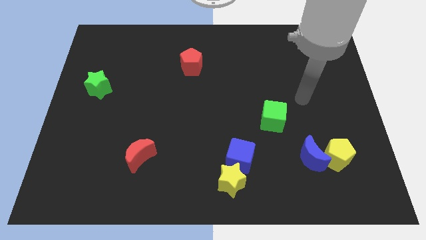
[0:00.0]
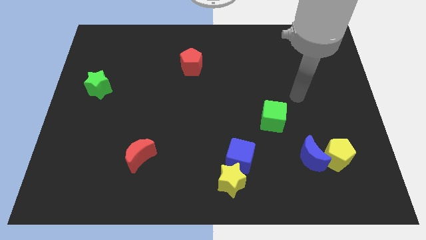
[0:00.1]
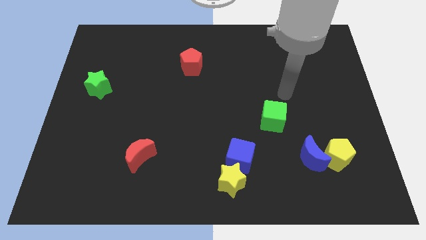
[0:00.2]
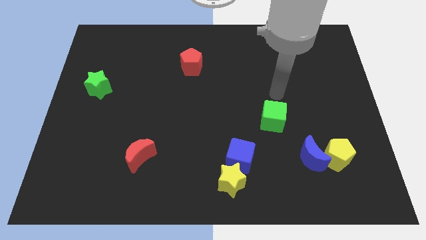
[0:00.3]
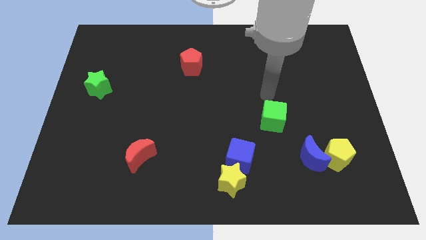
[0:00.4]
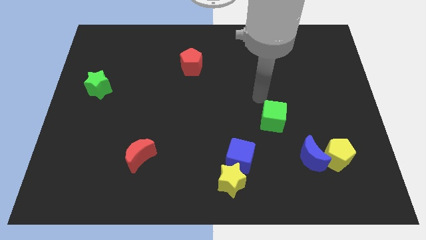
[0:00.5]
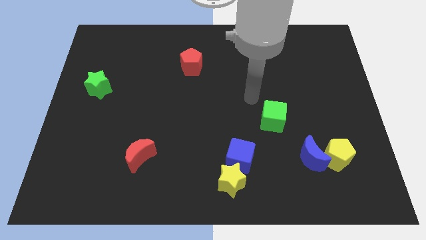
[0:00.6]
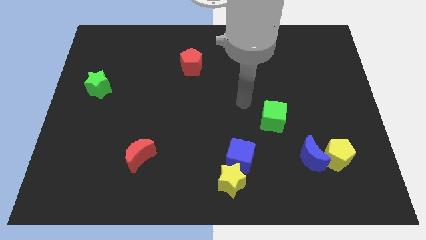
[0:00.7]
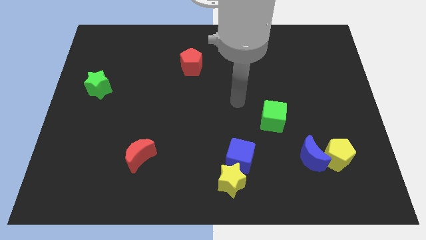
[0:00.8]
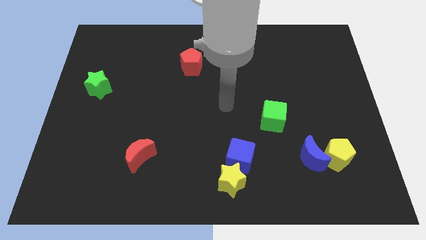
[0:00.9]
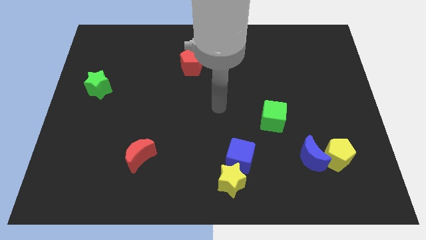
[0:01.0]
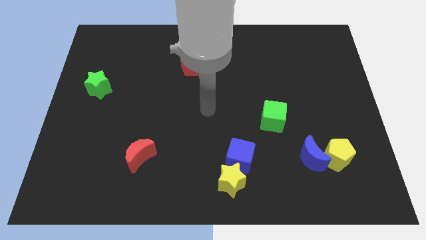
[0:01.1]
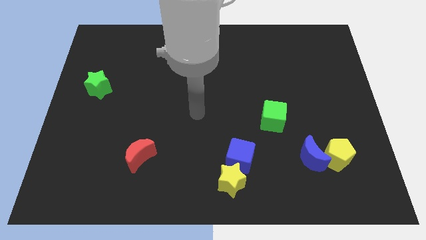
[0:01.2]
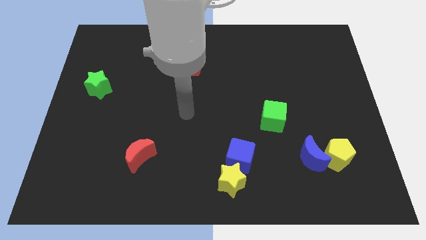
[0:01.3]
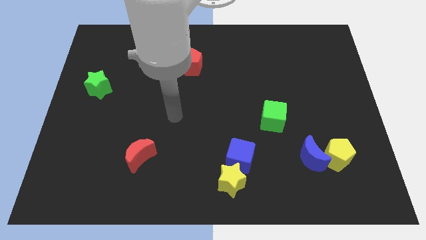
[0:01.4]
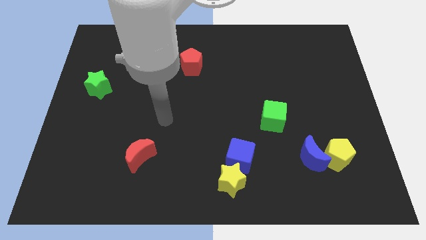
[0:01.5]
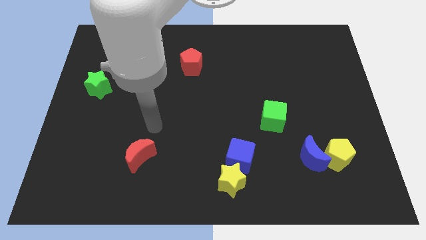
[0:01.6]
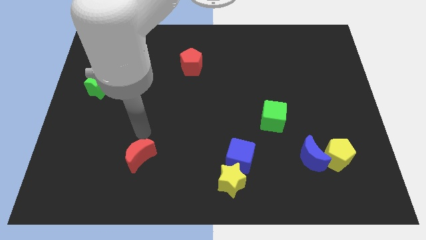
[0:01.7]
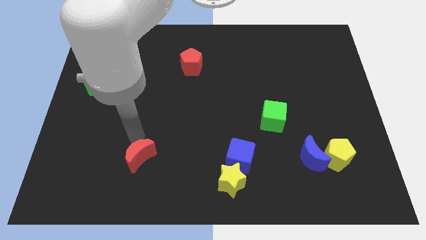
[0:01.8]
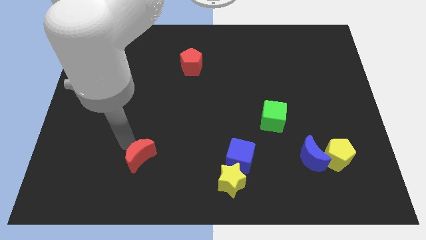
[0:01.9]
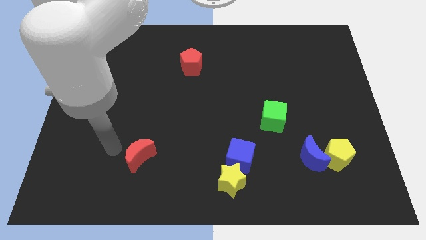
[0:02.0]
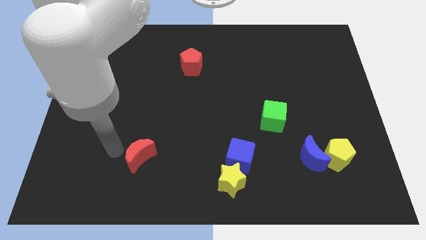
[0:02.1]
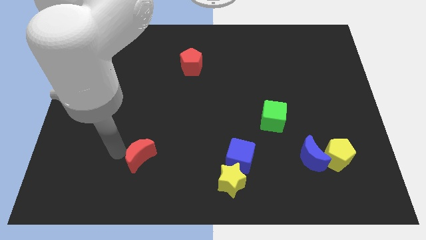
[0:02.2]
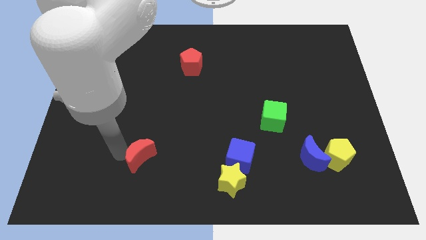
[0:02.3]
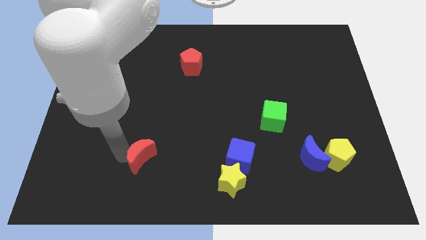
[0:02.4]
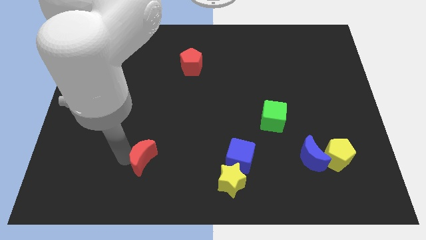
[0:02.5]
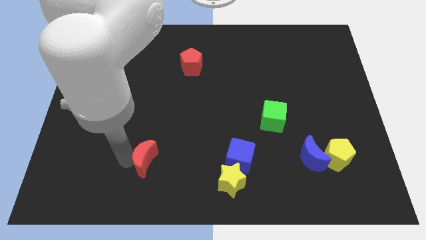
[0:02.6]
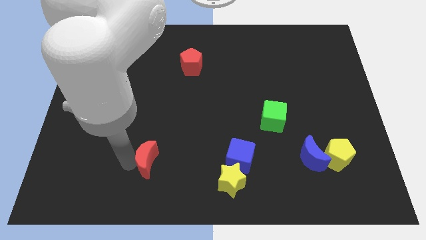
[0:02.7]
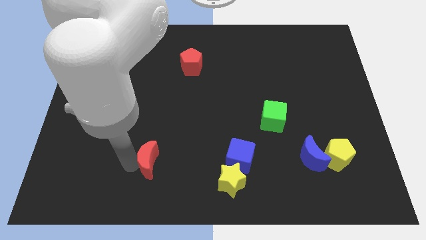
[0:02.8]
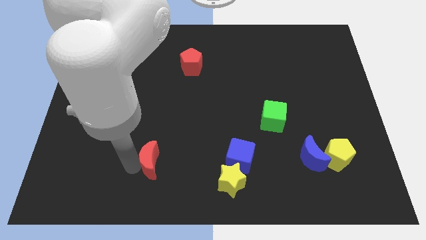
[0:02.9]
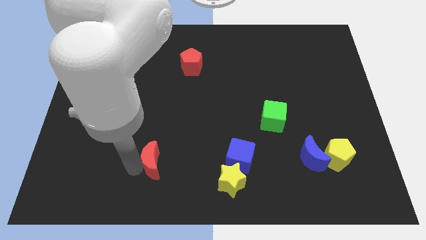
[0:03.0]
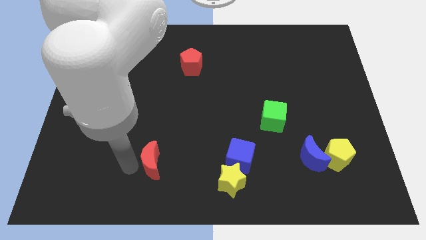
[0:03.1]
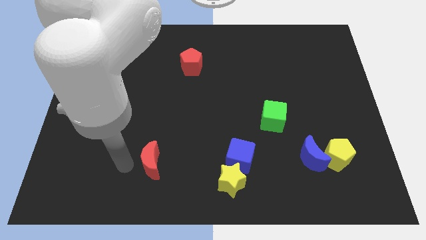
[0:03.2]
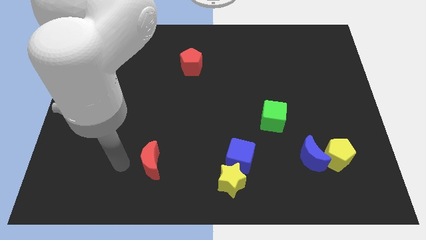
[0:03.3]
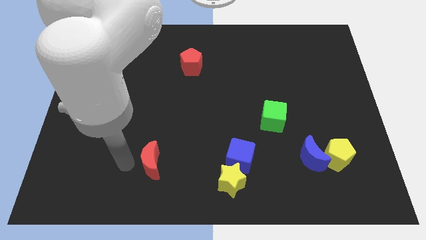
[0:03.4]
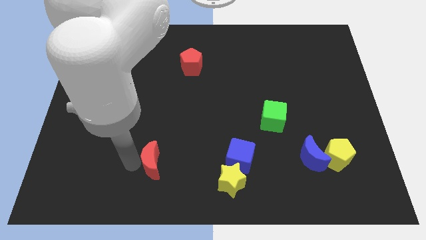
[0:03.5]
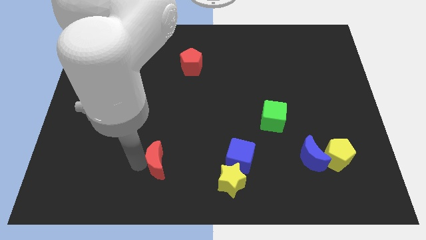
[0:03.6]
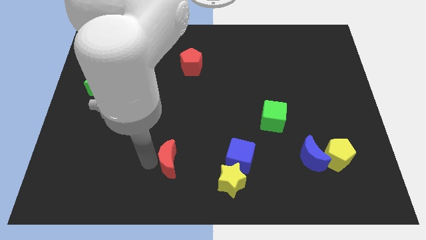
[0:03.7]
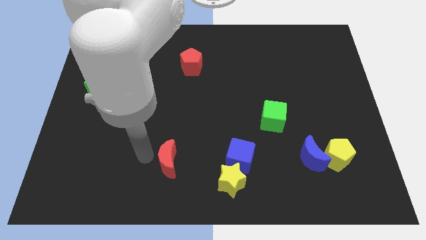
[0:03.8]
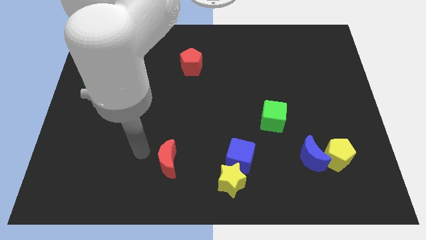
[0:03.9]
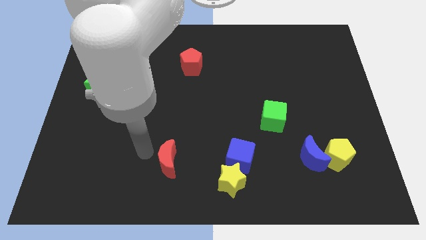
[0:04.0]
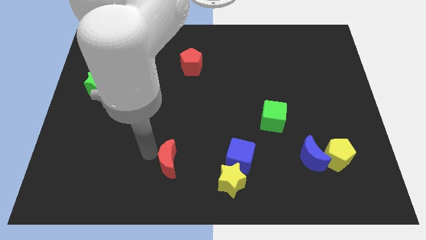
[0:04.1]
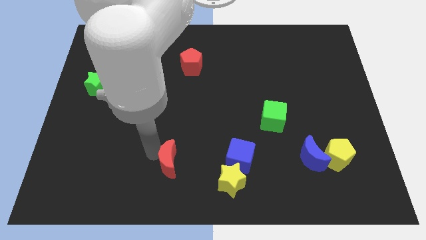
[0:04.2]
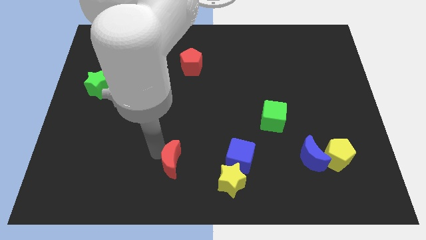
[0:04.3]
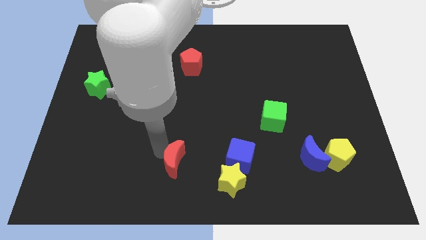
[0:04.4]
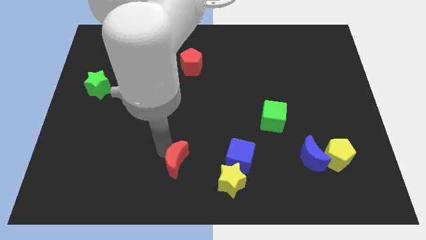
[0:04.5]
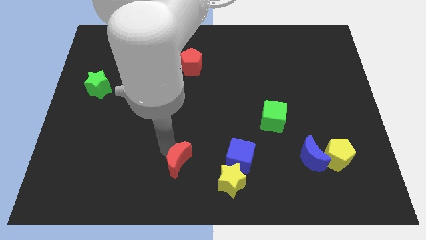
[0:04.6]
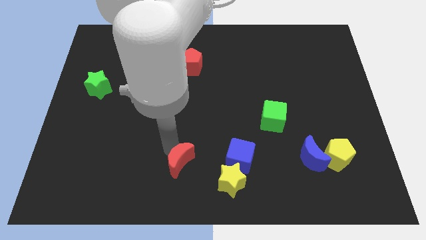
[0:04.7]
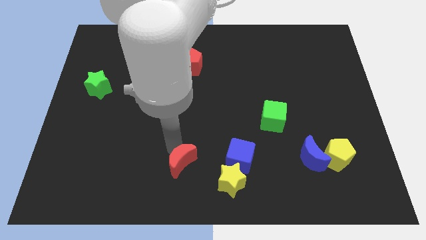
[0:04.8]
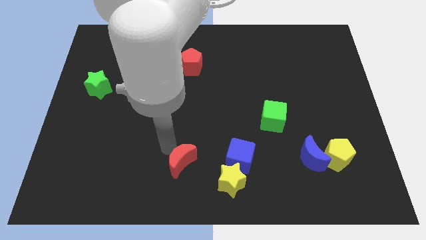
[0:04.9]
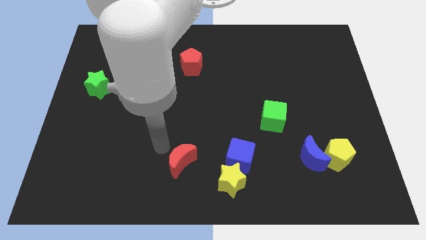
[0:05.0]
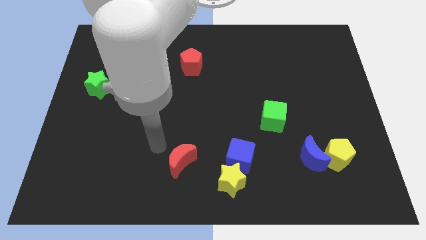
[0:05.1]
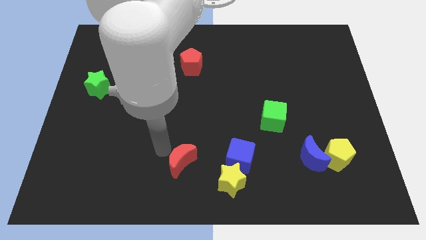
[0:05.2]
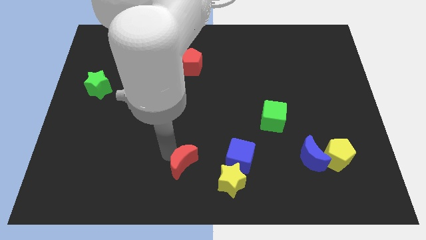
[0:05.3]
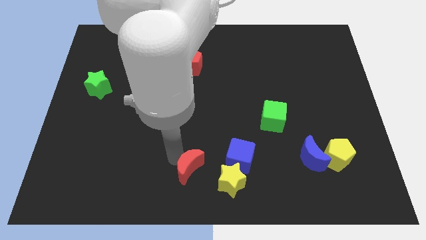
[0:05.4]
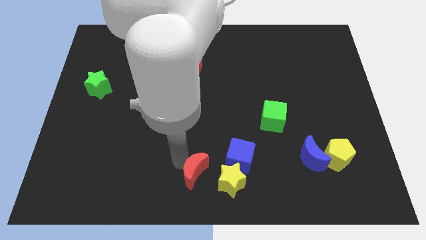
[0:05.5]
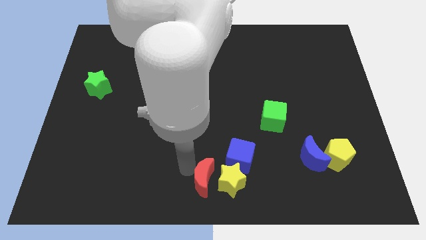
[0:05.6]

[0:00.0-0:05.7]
move the red moon close to the yellow star

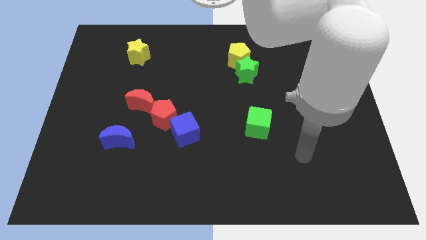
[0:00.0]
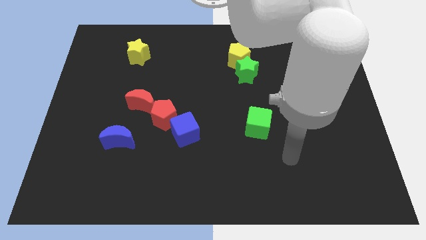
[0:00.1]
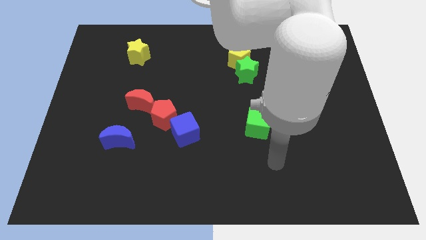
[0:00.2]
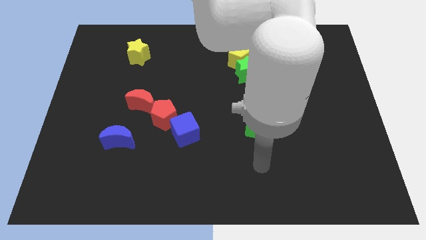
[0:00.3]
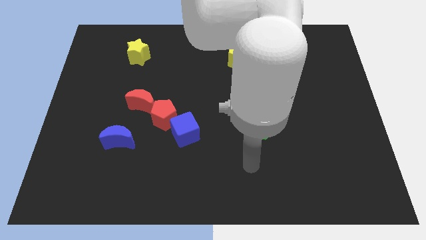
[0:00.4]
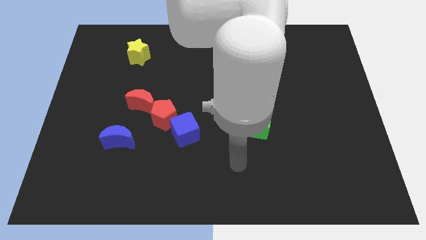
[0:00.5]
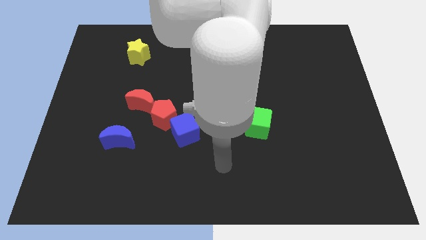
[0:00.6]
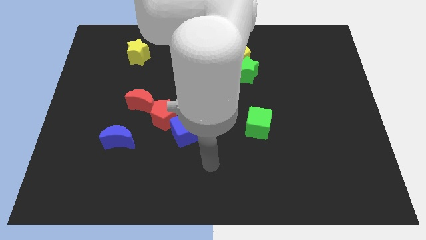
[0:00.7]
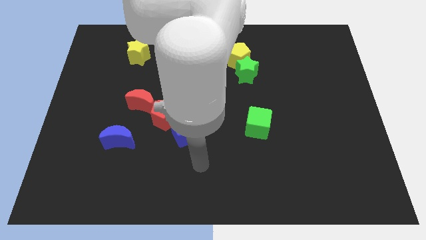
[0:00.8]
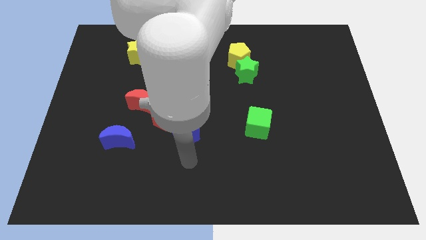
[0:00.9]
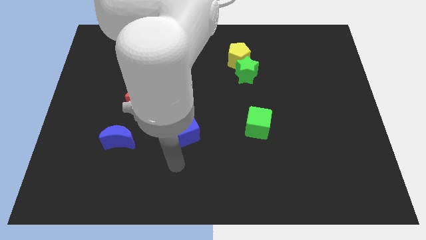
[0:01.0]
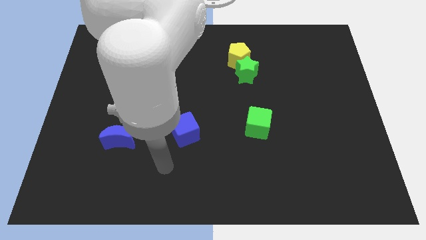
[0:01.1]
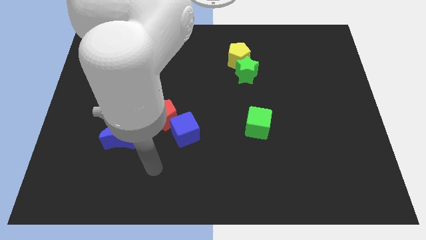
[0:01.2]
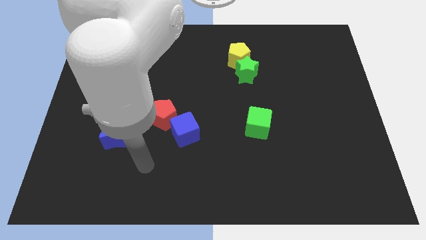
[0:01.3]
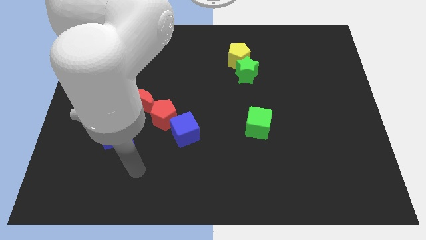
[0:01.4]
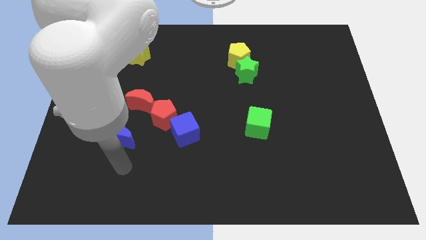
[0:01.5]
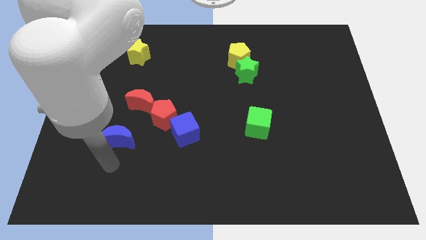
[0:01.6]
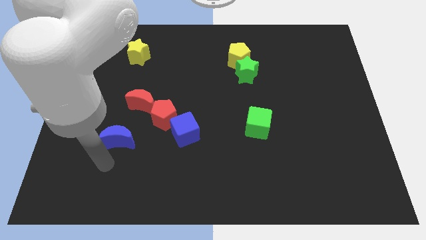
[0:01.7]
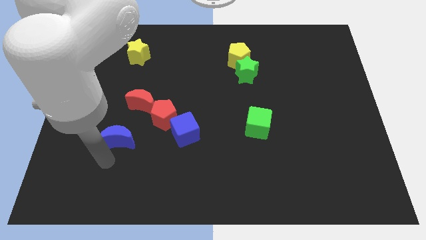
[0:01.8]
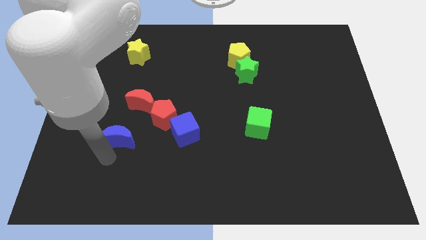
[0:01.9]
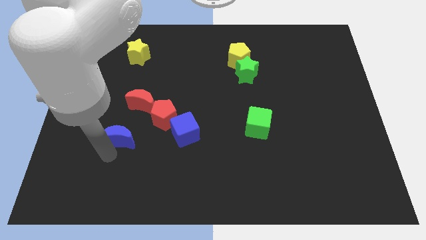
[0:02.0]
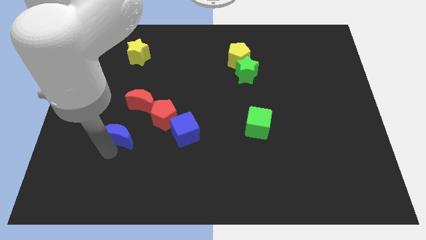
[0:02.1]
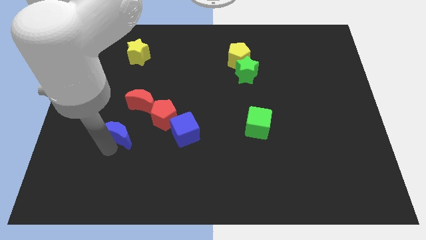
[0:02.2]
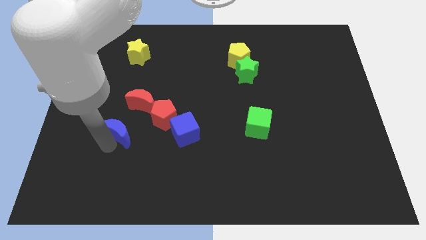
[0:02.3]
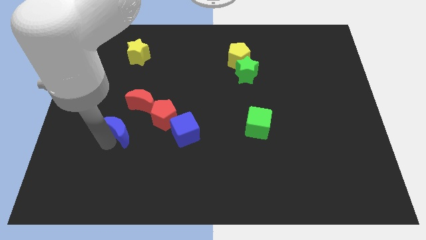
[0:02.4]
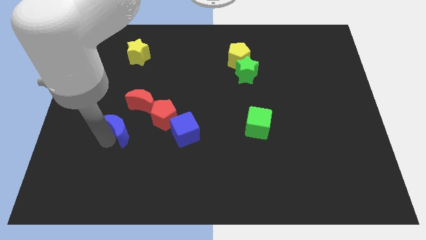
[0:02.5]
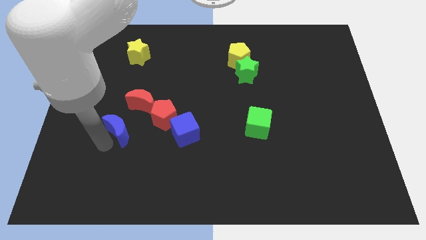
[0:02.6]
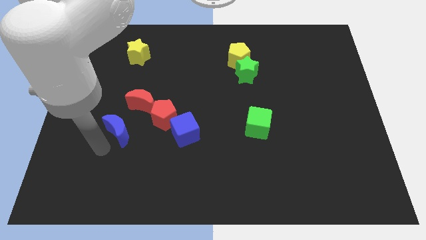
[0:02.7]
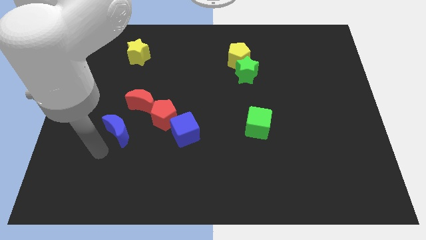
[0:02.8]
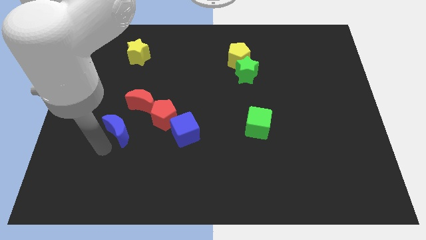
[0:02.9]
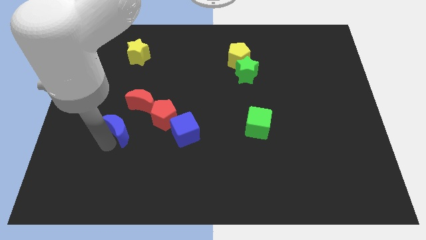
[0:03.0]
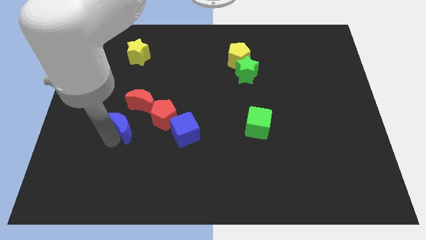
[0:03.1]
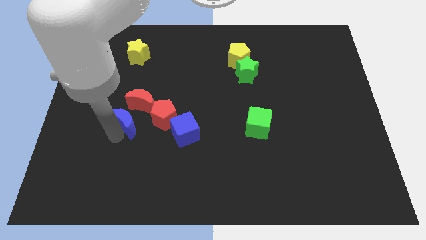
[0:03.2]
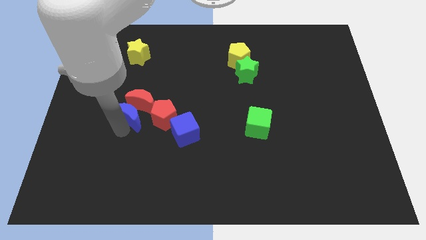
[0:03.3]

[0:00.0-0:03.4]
push the blue moon to the red moon
